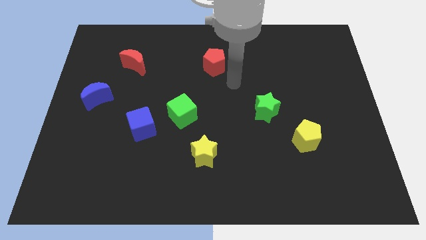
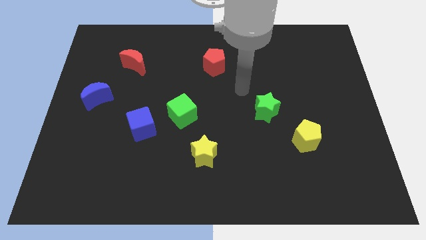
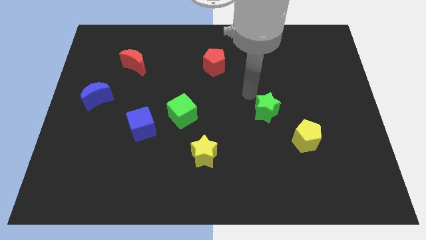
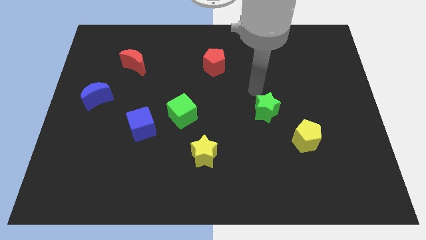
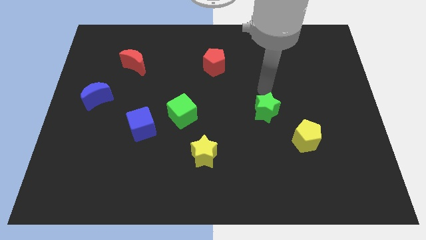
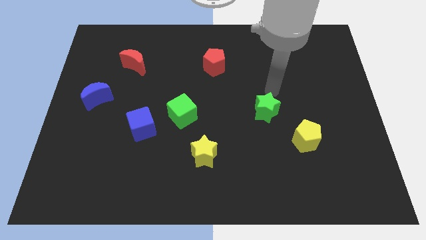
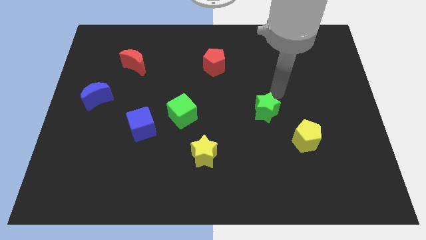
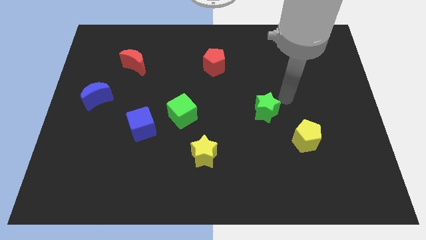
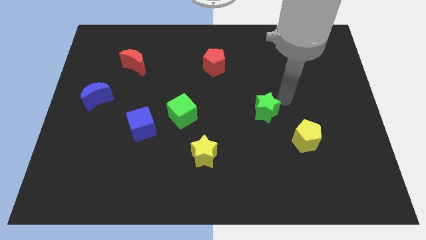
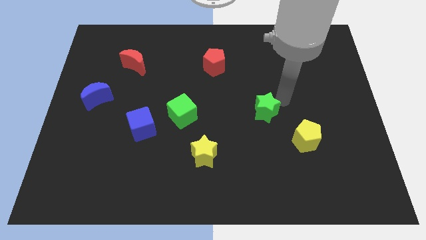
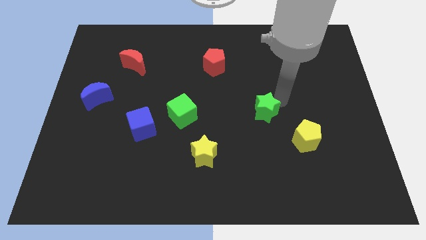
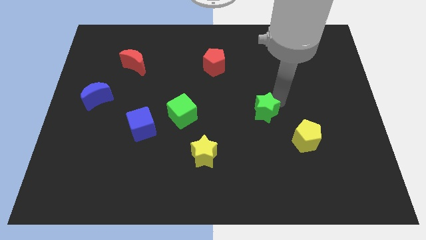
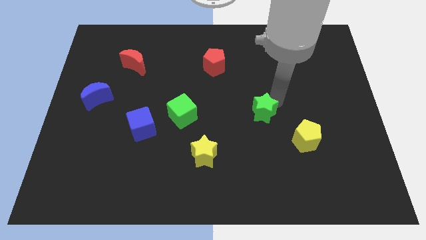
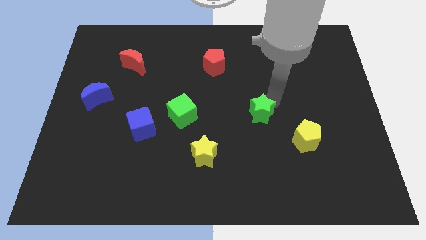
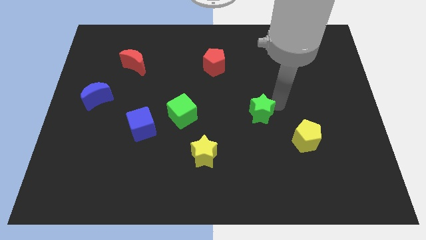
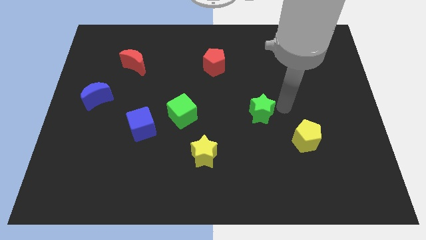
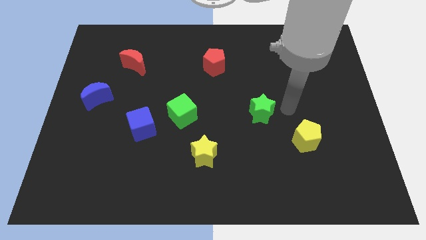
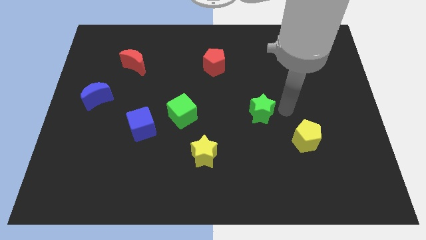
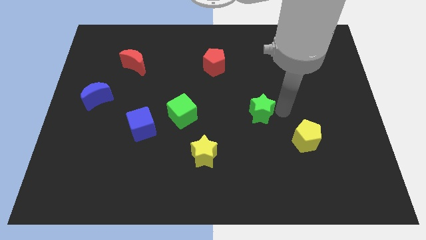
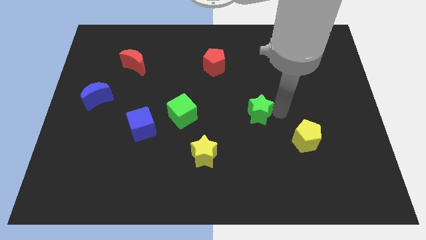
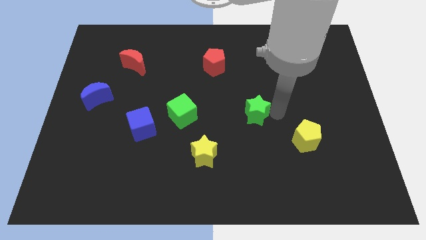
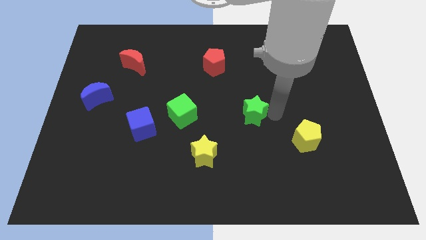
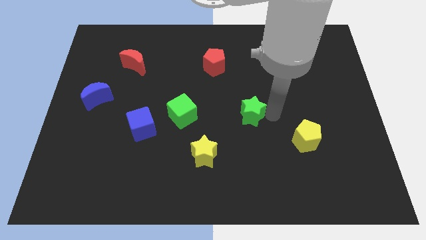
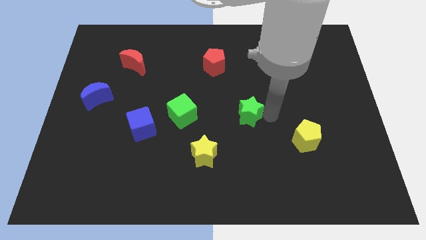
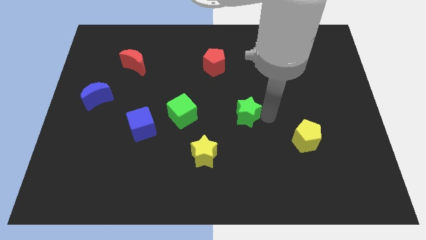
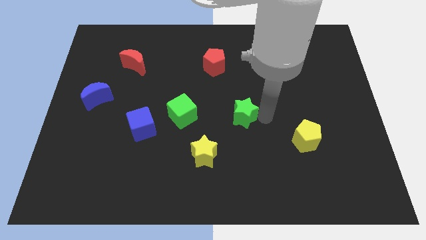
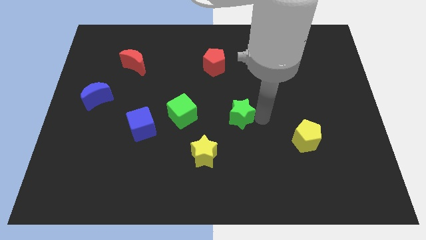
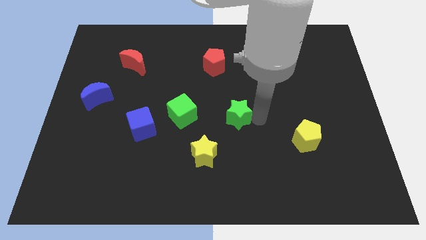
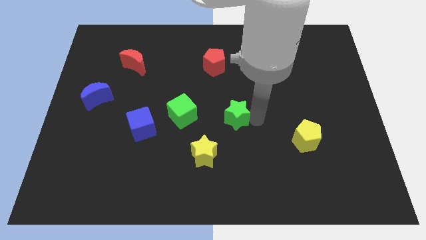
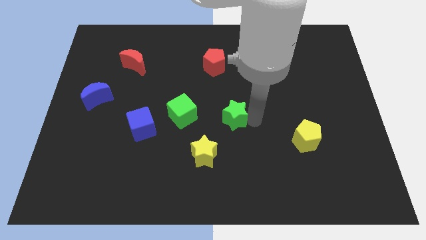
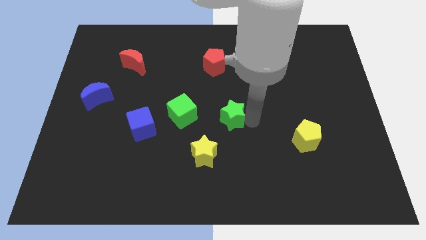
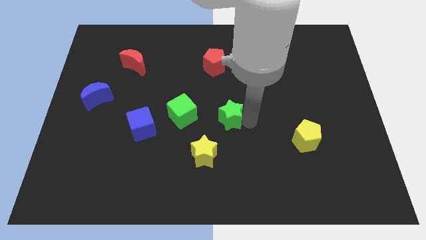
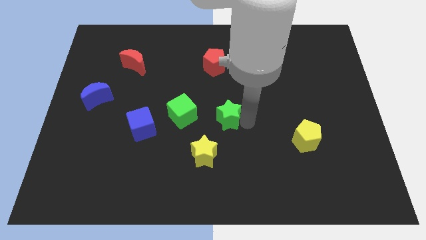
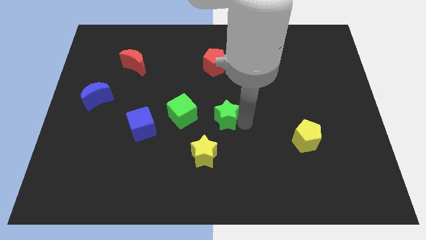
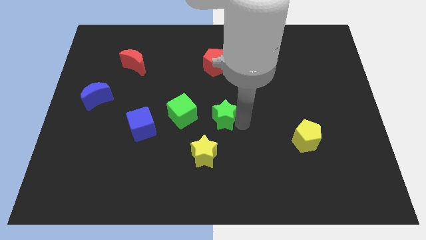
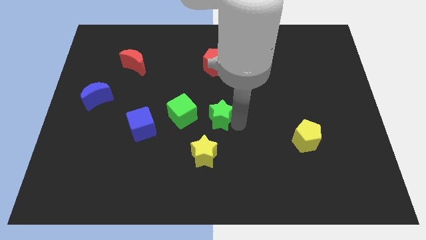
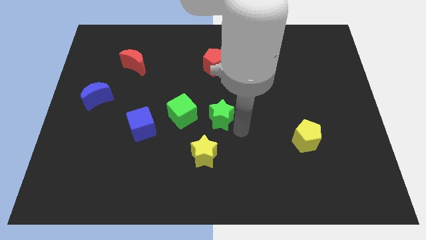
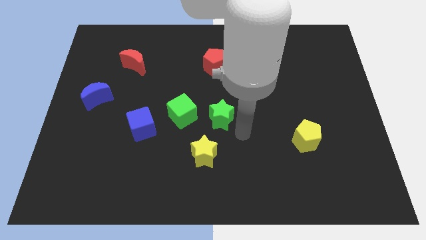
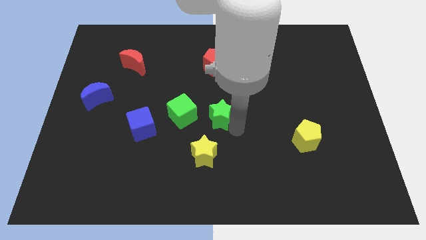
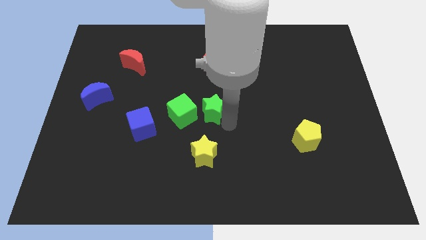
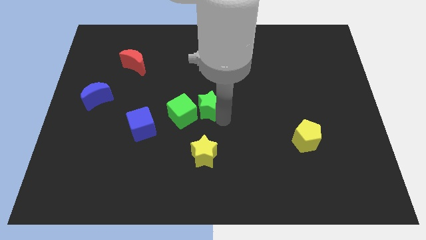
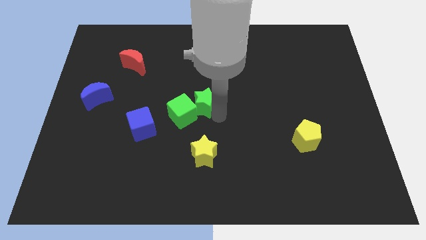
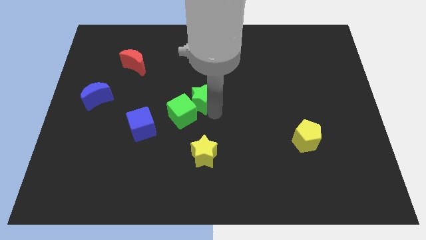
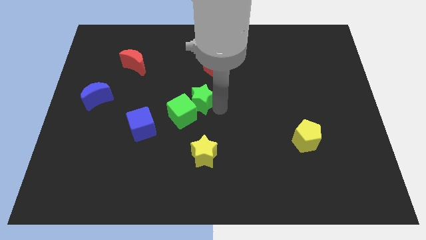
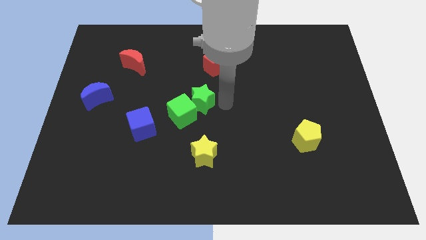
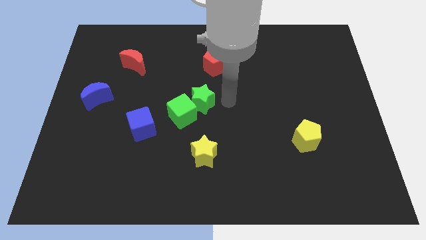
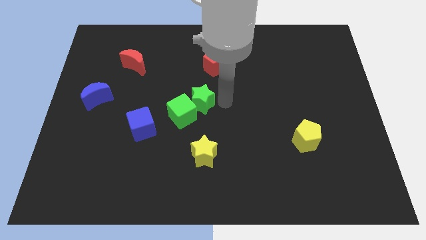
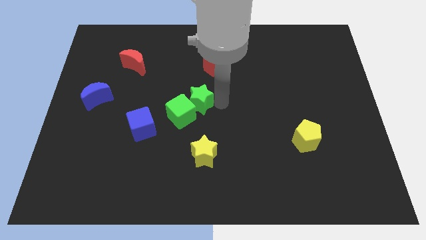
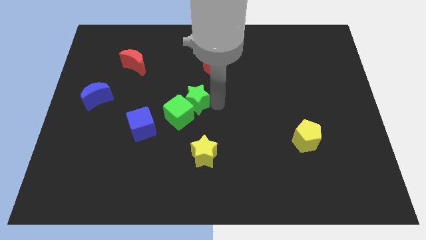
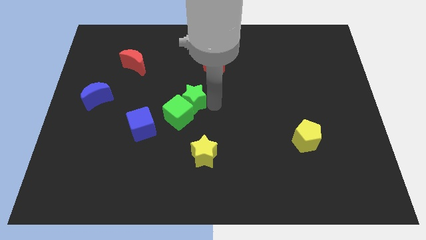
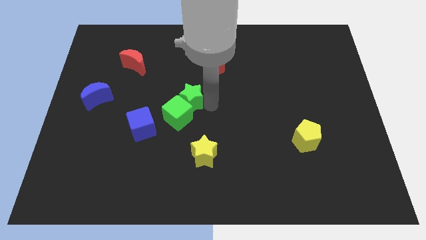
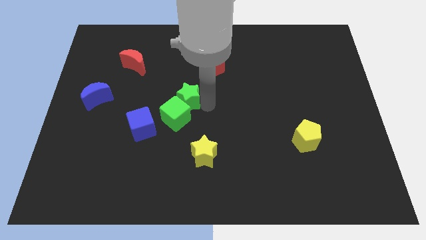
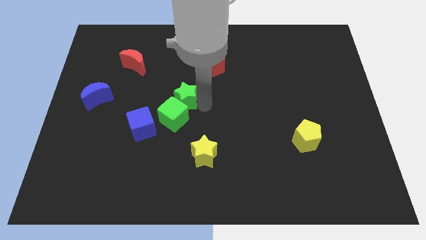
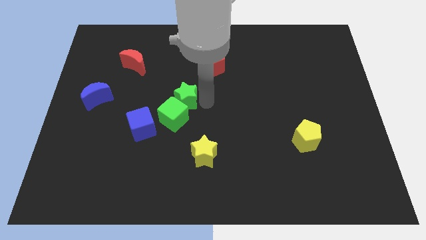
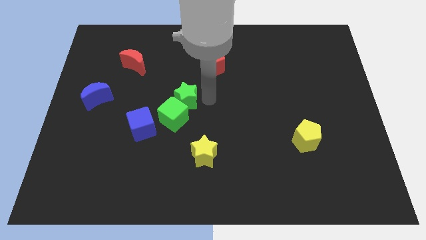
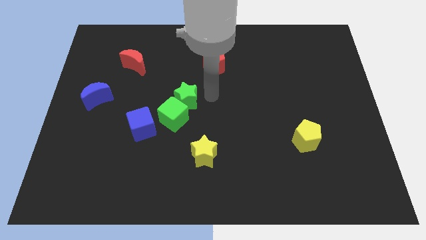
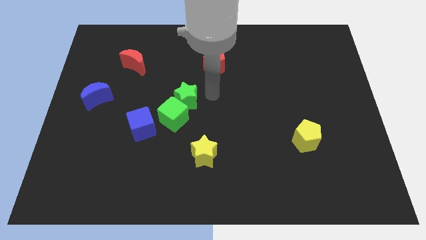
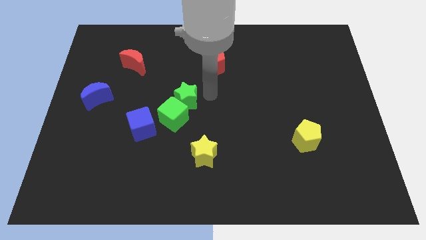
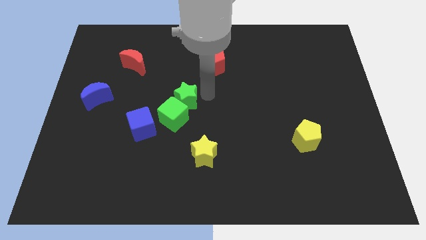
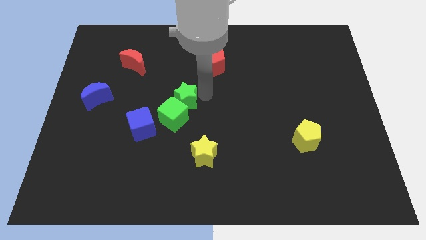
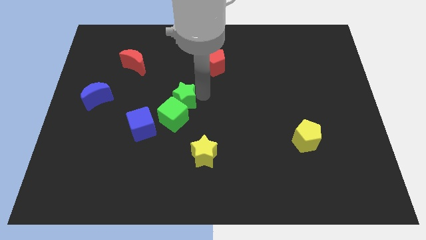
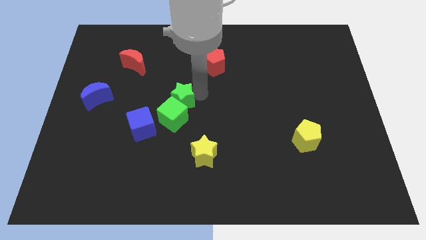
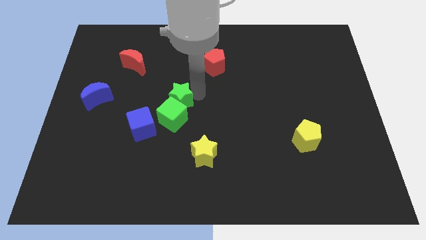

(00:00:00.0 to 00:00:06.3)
move the green star left

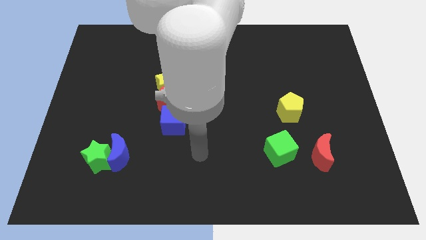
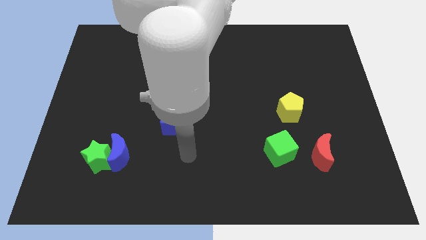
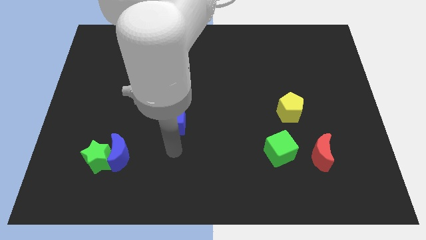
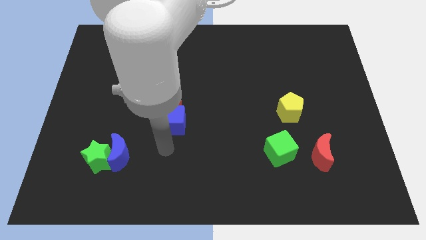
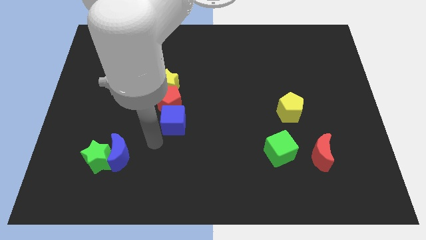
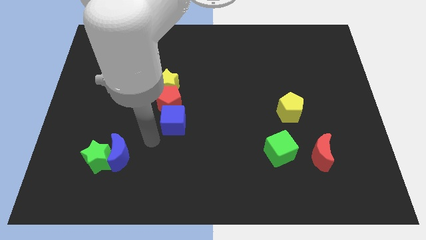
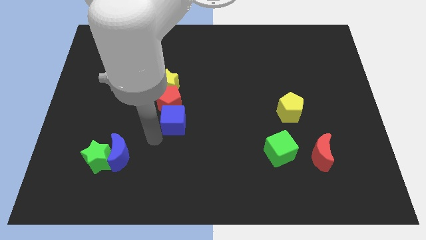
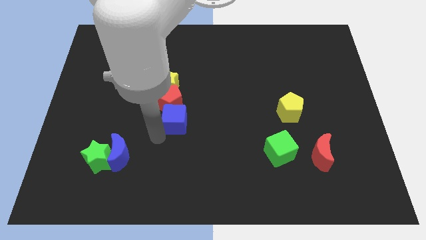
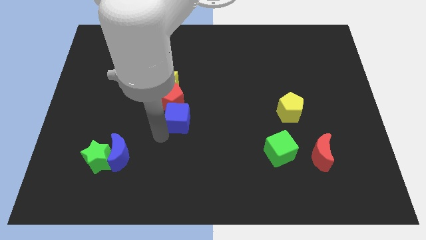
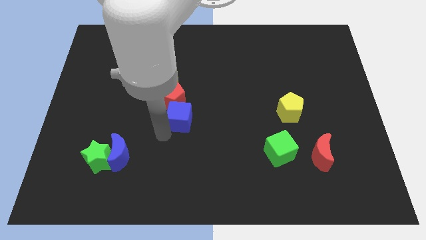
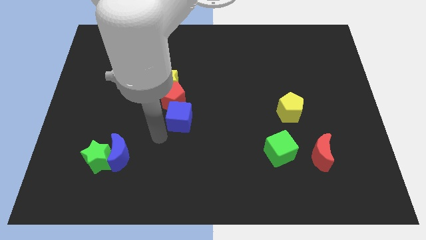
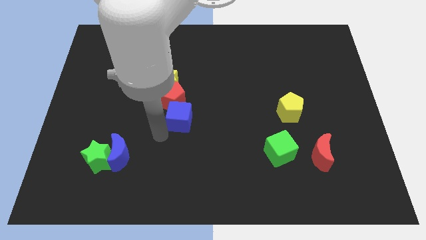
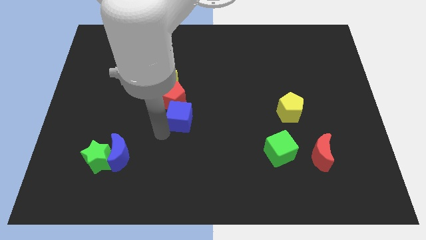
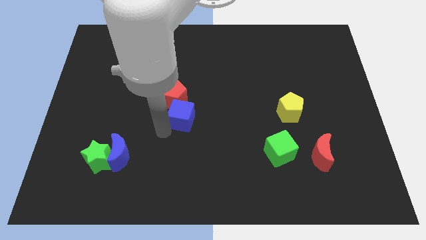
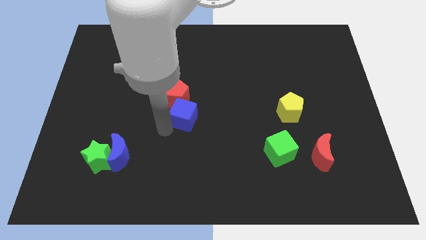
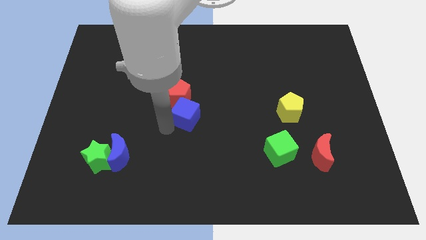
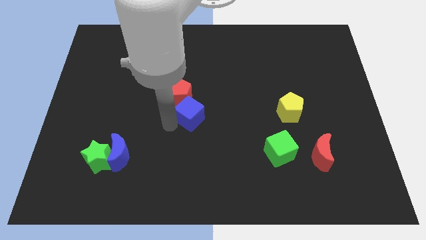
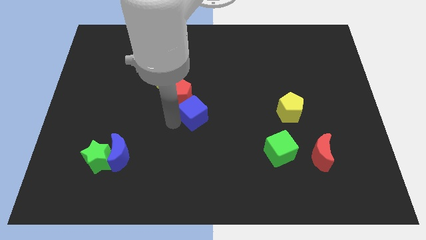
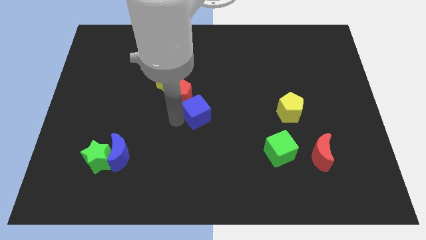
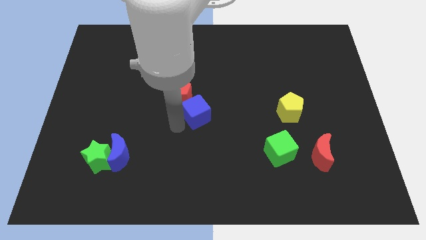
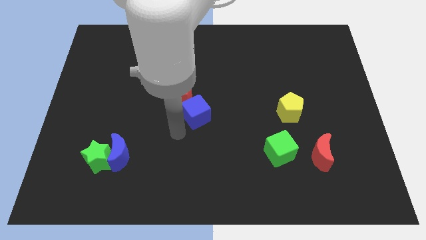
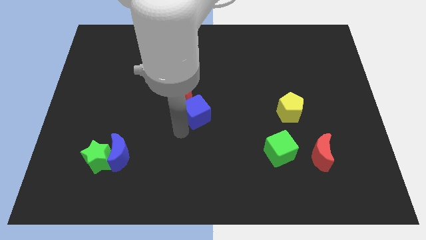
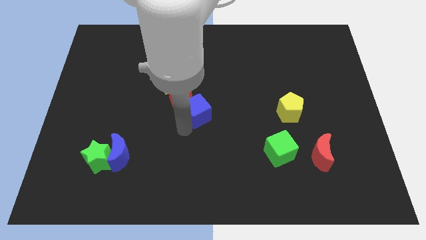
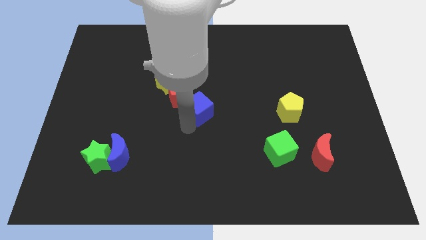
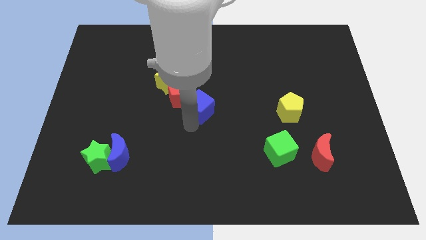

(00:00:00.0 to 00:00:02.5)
slightly move the blue cube up and right diagonally
